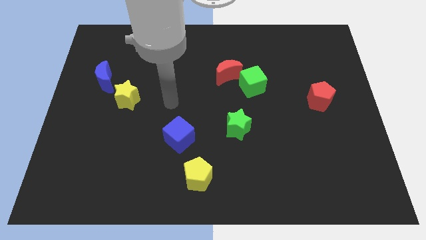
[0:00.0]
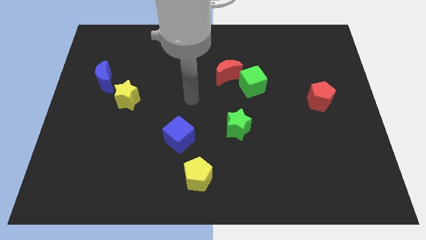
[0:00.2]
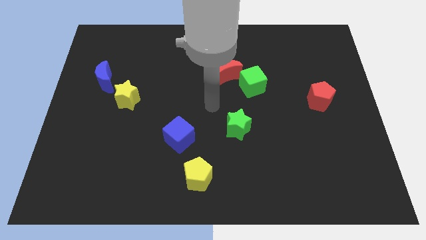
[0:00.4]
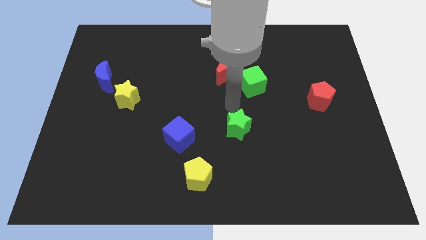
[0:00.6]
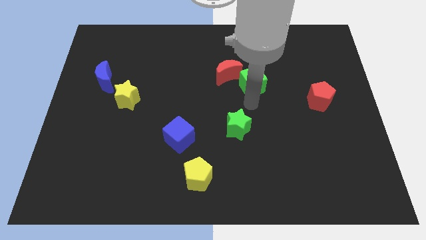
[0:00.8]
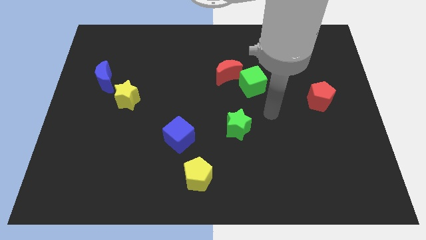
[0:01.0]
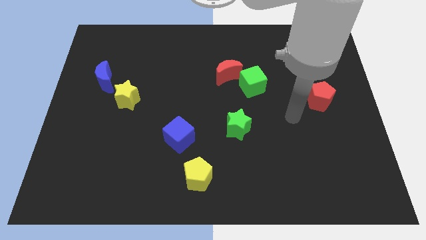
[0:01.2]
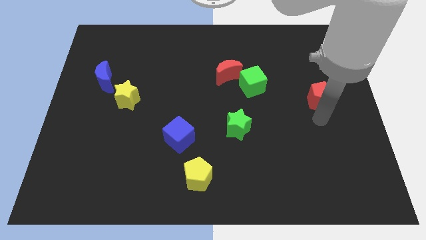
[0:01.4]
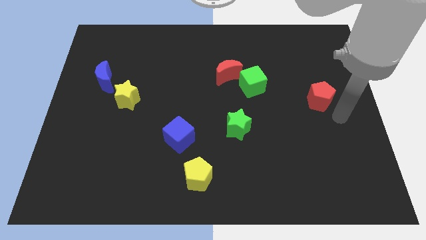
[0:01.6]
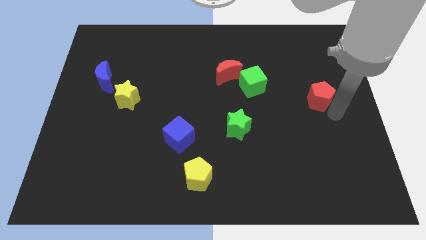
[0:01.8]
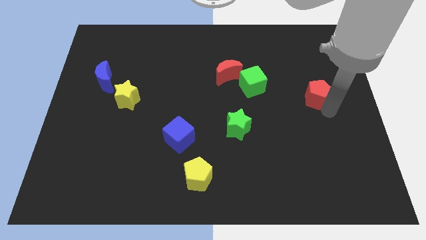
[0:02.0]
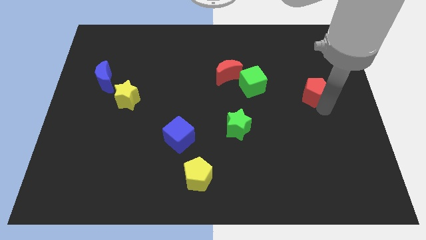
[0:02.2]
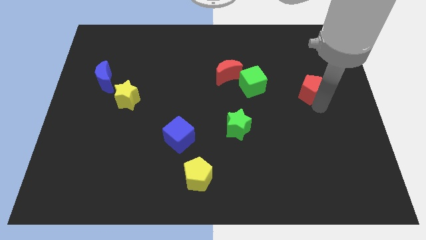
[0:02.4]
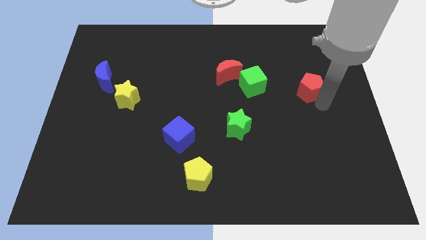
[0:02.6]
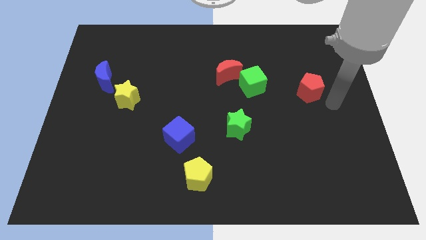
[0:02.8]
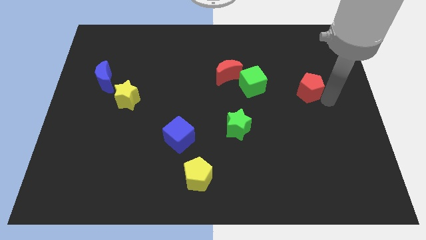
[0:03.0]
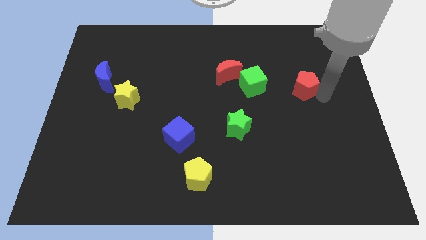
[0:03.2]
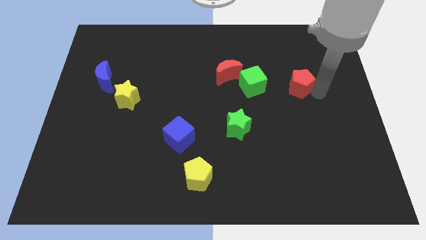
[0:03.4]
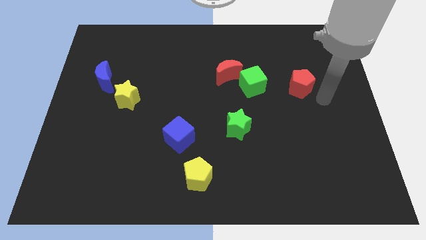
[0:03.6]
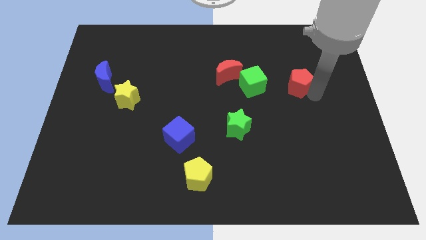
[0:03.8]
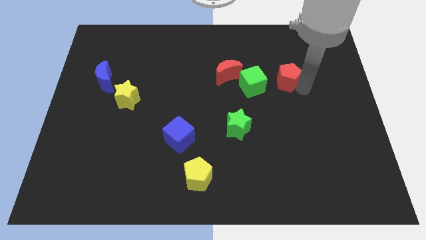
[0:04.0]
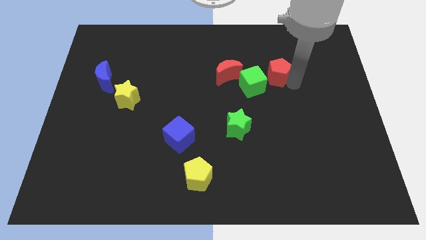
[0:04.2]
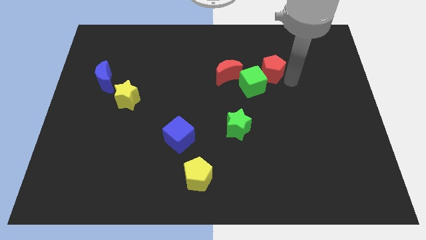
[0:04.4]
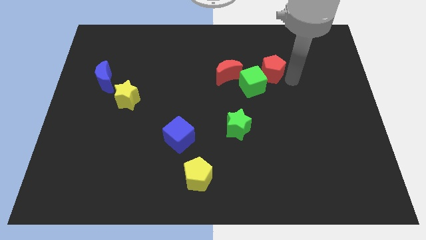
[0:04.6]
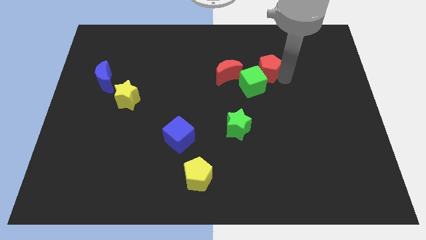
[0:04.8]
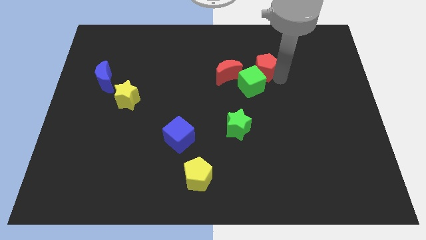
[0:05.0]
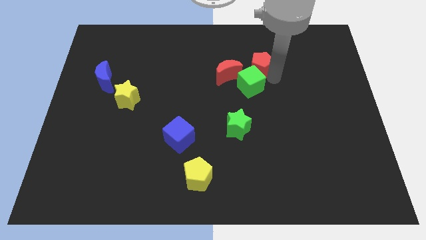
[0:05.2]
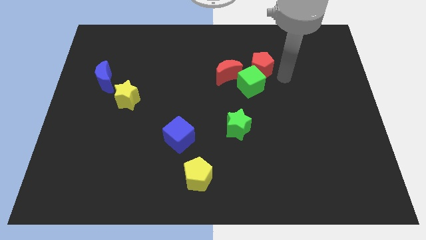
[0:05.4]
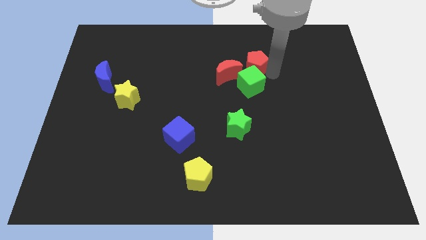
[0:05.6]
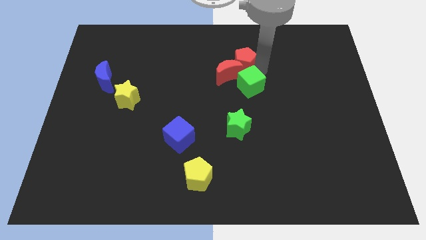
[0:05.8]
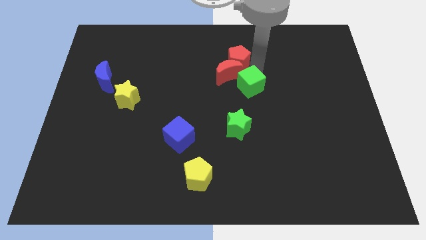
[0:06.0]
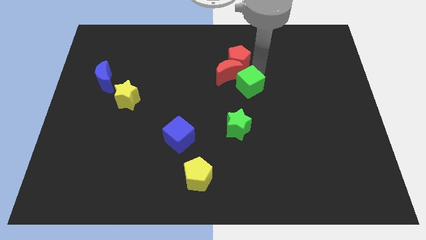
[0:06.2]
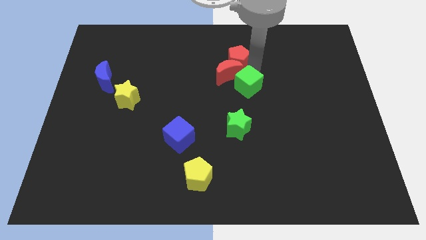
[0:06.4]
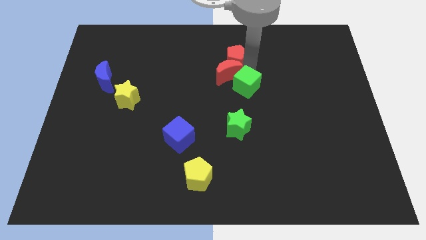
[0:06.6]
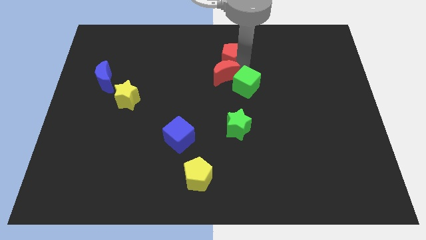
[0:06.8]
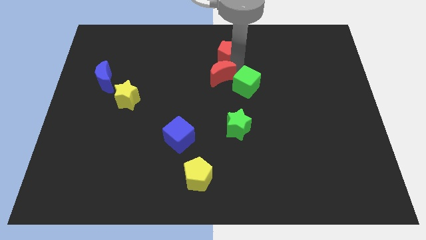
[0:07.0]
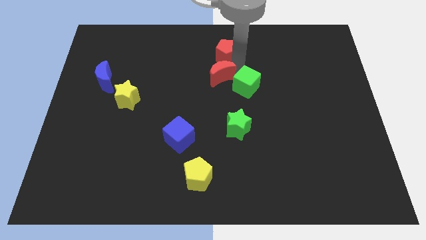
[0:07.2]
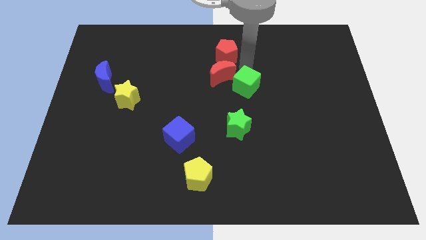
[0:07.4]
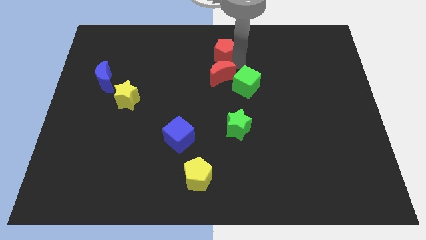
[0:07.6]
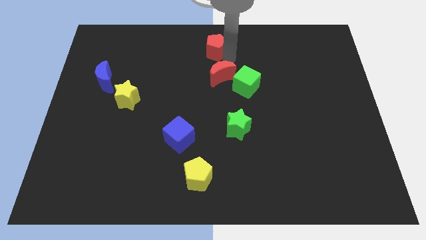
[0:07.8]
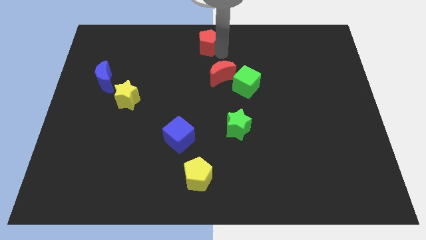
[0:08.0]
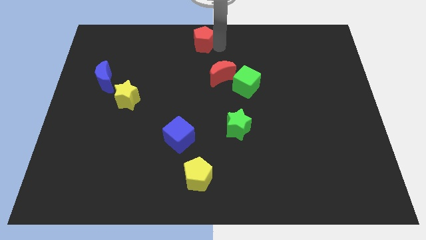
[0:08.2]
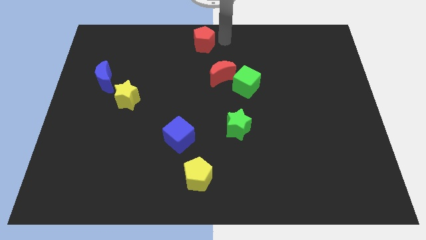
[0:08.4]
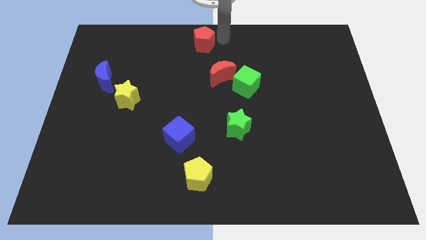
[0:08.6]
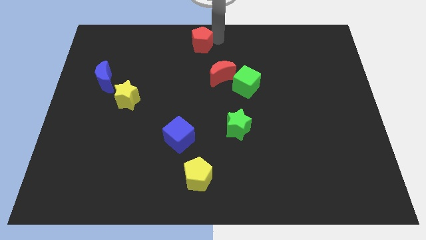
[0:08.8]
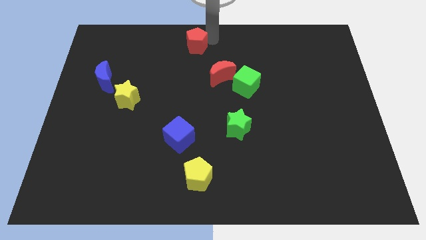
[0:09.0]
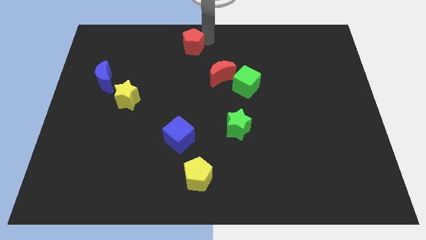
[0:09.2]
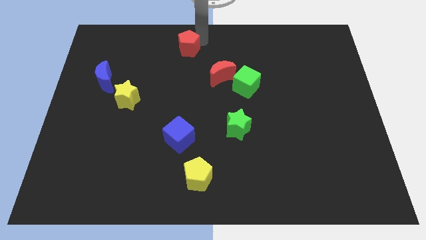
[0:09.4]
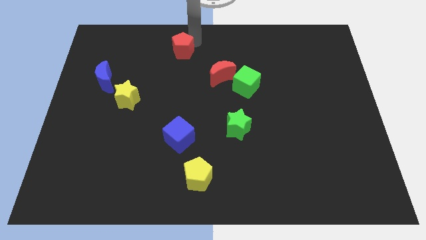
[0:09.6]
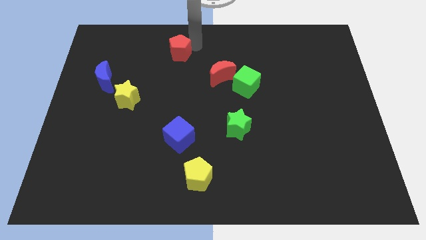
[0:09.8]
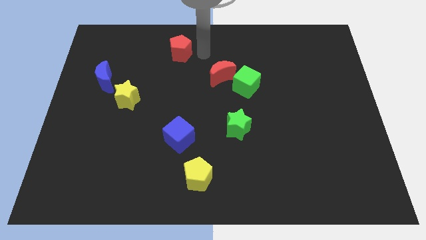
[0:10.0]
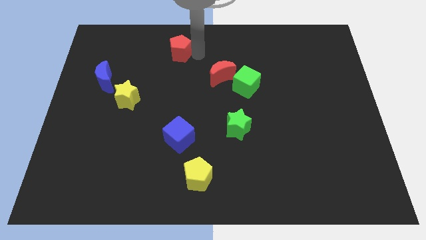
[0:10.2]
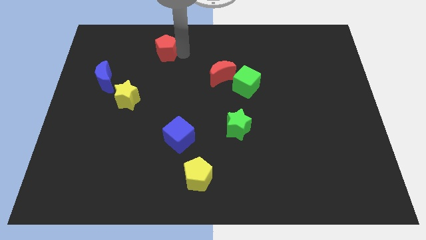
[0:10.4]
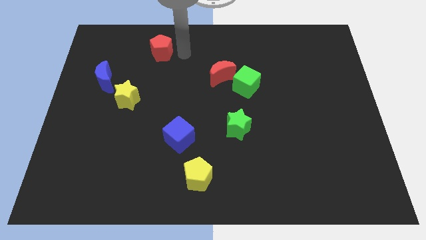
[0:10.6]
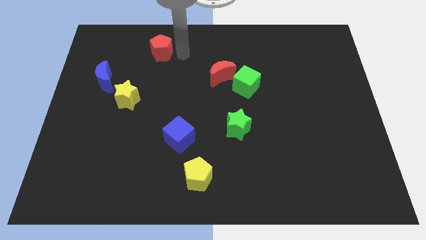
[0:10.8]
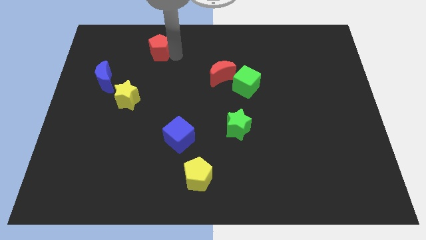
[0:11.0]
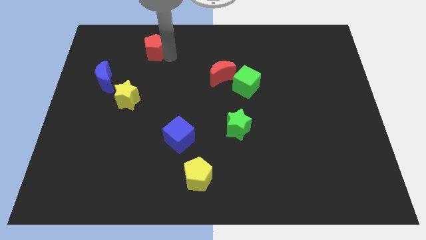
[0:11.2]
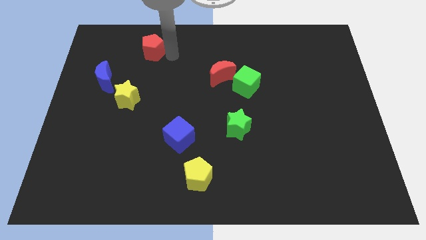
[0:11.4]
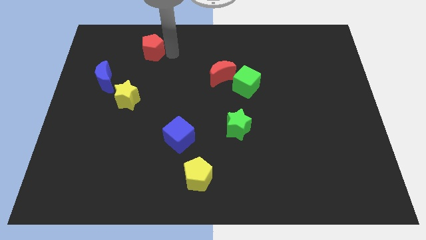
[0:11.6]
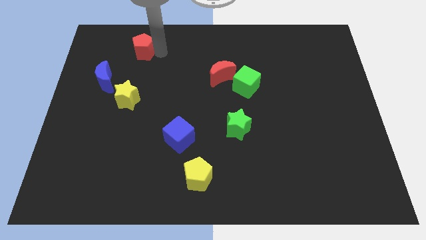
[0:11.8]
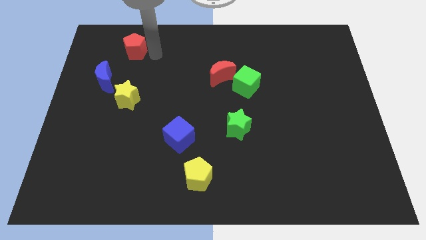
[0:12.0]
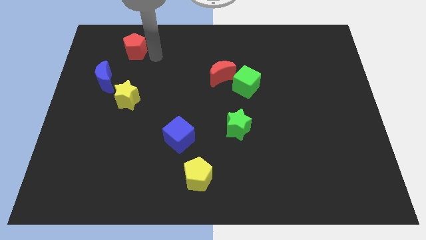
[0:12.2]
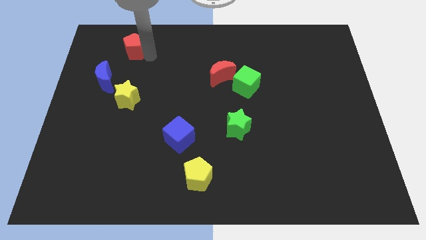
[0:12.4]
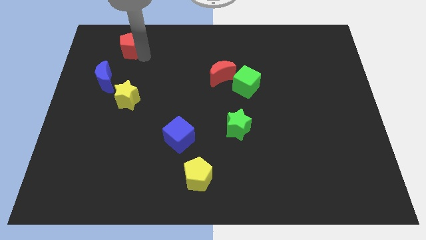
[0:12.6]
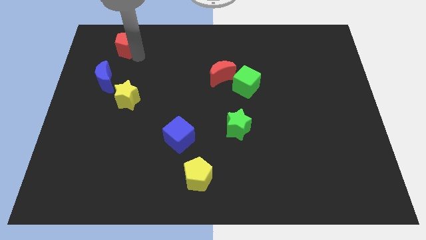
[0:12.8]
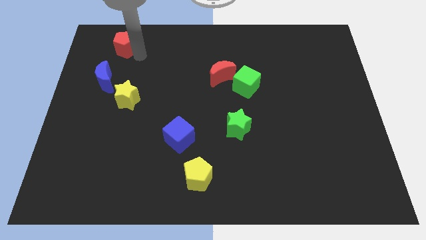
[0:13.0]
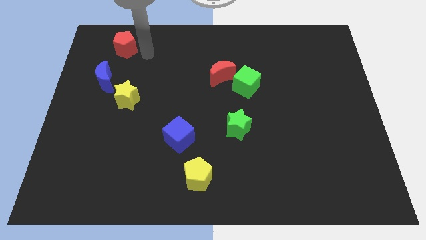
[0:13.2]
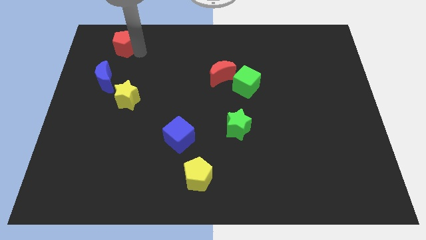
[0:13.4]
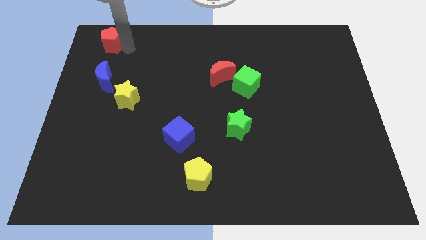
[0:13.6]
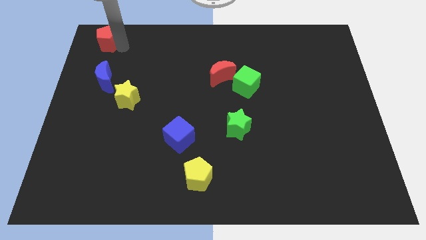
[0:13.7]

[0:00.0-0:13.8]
slide the red pentagon to the top left
